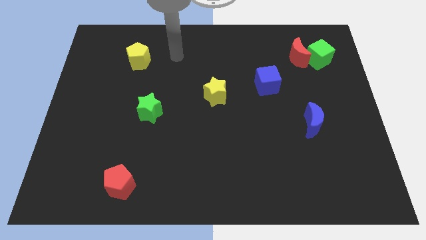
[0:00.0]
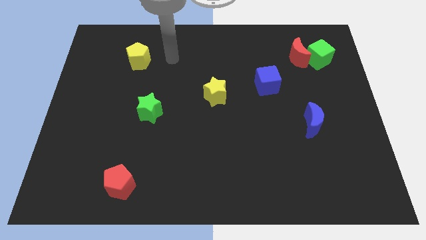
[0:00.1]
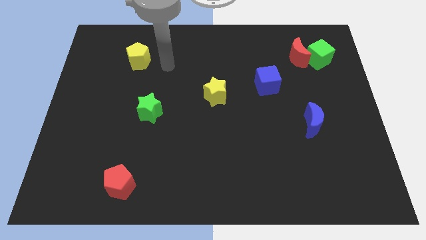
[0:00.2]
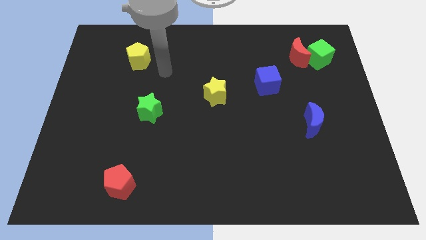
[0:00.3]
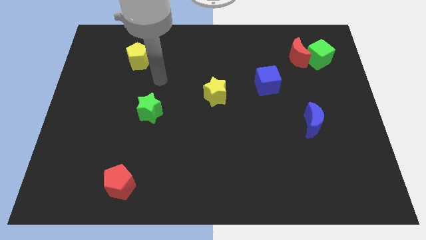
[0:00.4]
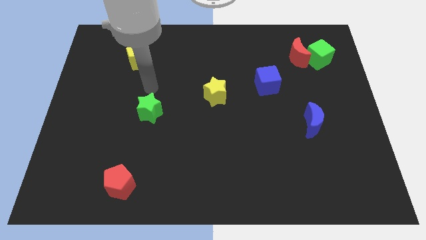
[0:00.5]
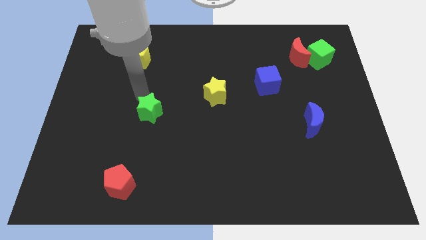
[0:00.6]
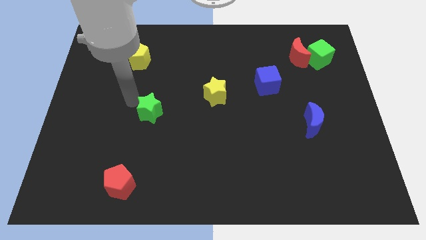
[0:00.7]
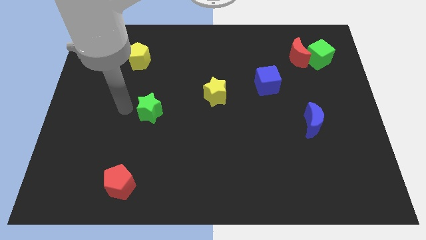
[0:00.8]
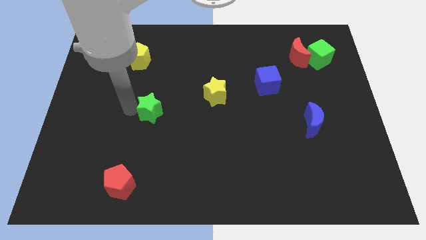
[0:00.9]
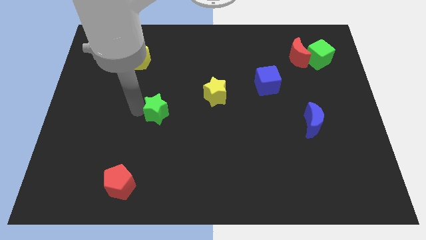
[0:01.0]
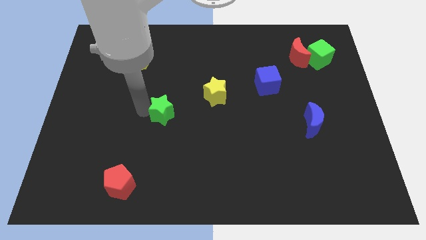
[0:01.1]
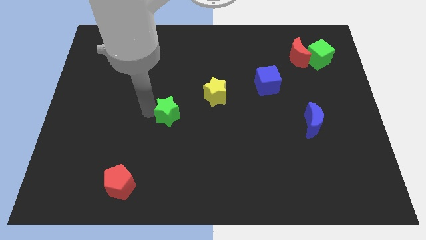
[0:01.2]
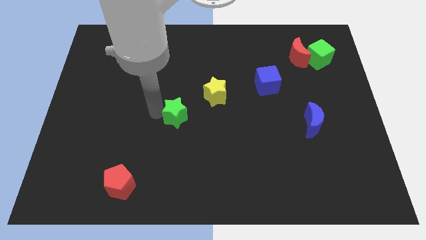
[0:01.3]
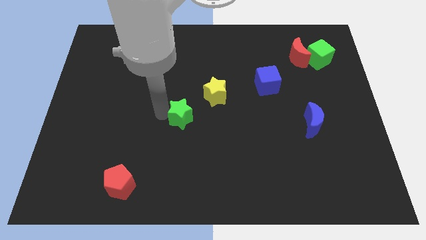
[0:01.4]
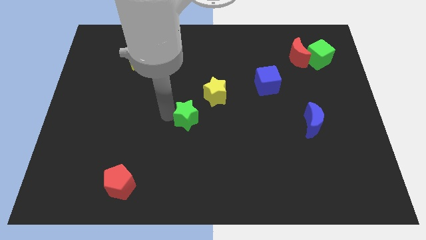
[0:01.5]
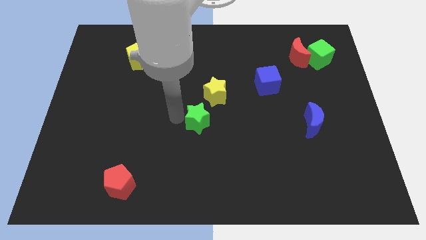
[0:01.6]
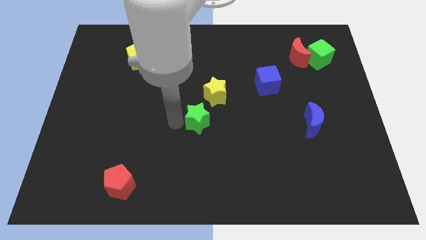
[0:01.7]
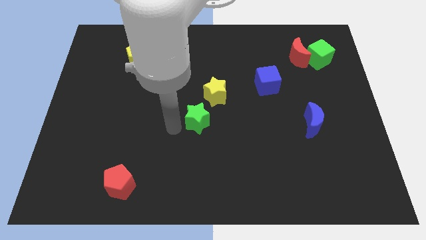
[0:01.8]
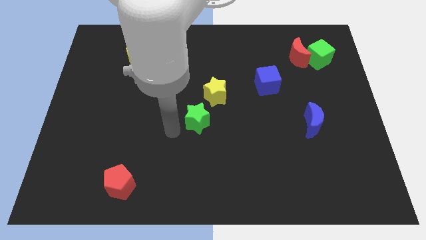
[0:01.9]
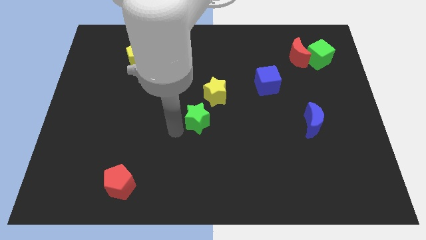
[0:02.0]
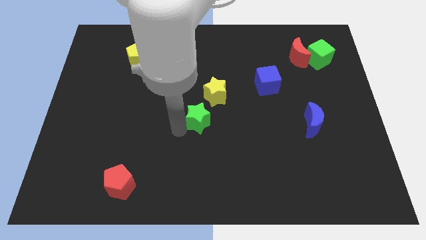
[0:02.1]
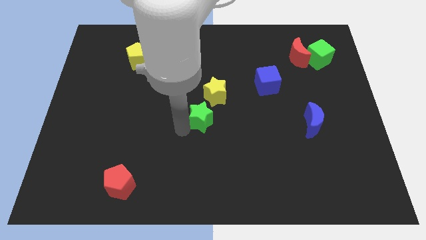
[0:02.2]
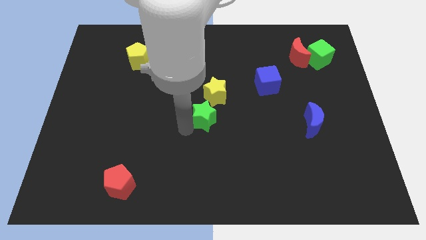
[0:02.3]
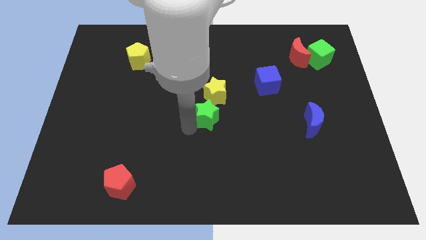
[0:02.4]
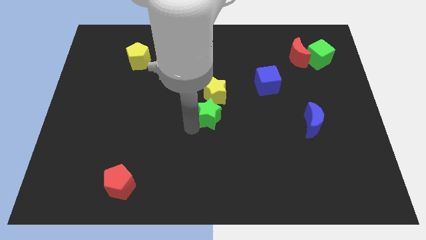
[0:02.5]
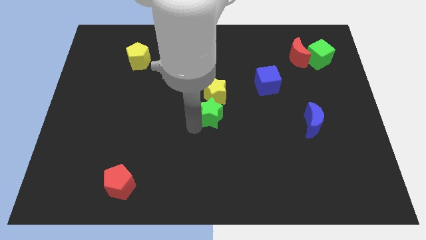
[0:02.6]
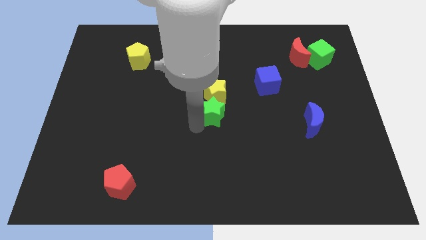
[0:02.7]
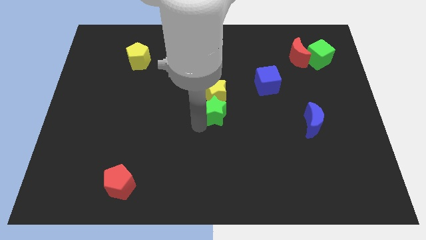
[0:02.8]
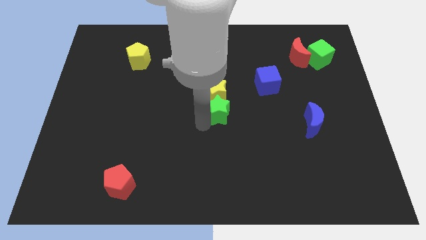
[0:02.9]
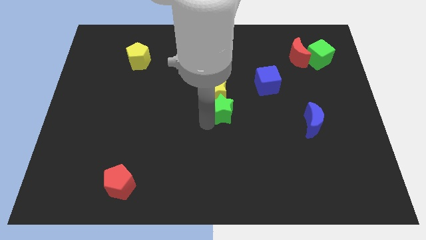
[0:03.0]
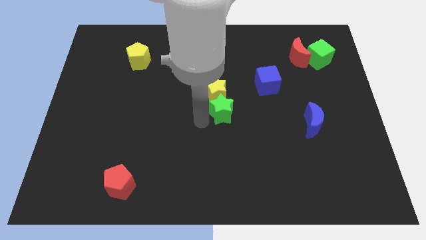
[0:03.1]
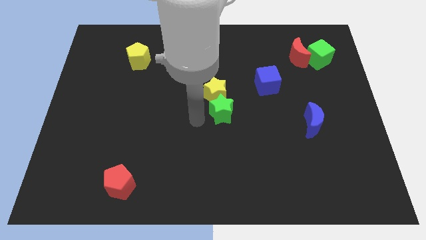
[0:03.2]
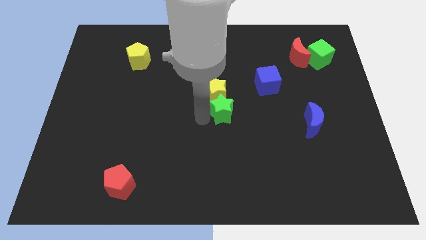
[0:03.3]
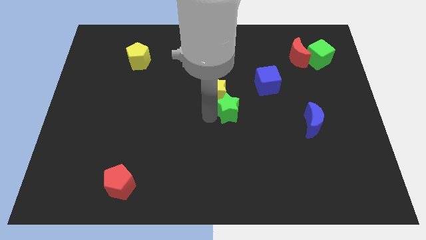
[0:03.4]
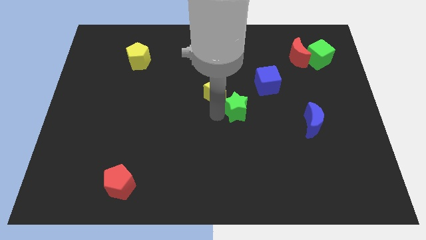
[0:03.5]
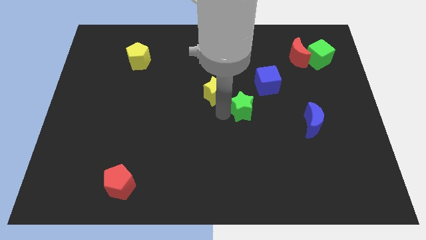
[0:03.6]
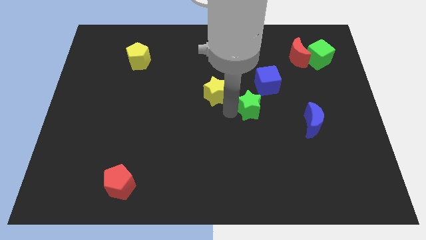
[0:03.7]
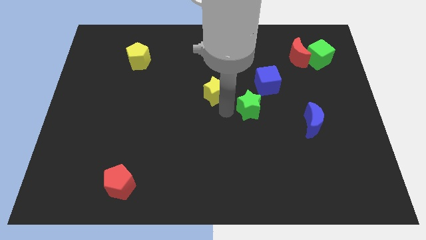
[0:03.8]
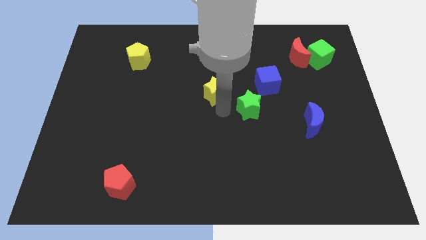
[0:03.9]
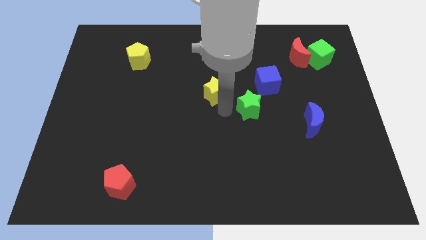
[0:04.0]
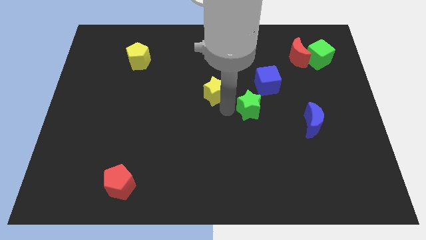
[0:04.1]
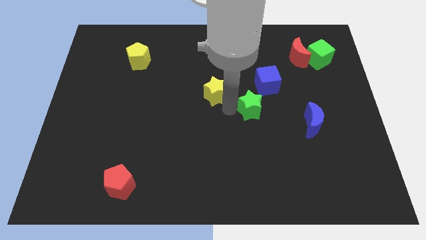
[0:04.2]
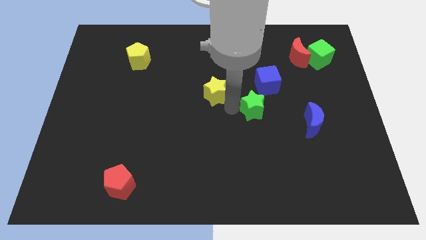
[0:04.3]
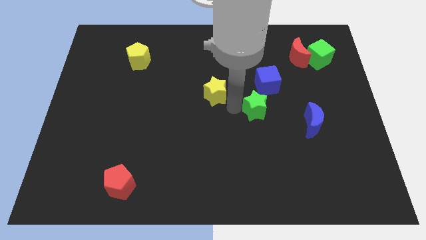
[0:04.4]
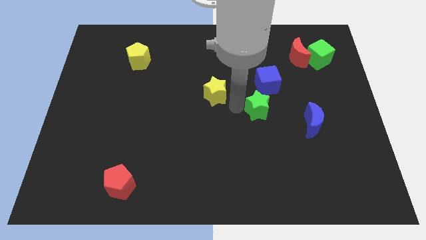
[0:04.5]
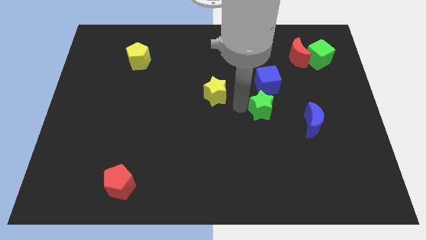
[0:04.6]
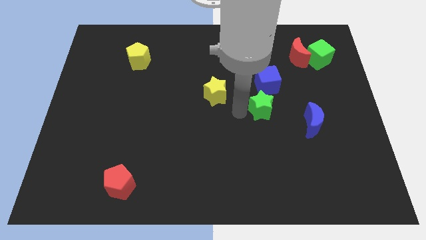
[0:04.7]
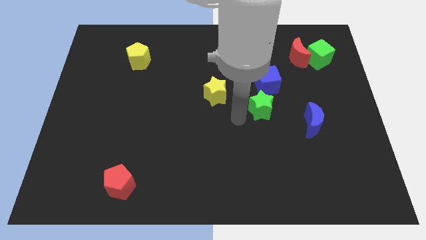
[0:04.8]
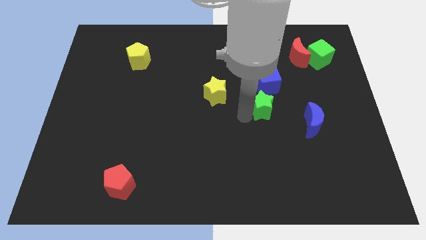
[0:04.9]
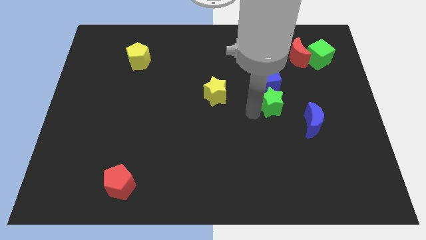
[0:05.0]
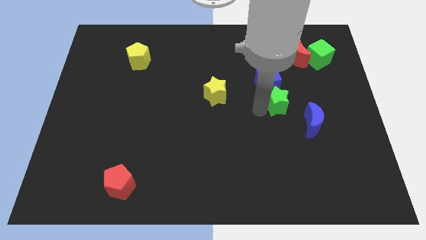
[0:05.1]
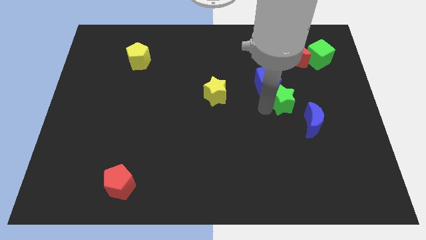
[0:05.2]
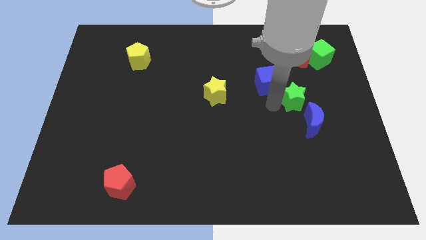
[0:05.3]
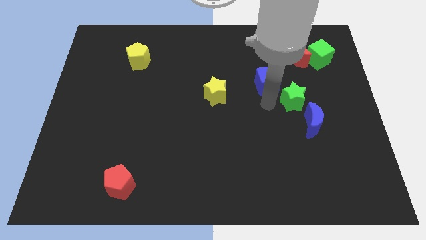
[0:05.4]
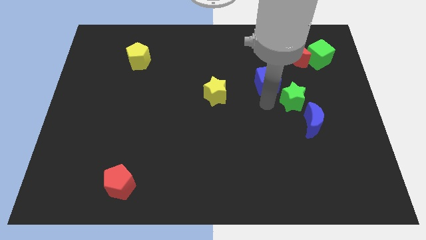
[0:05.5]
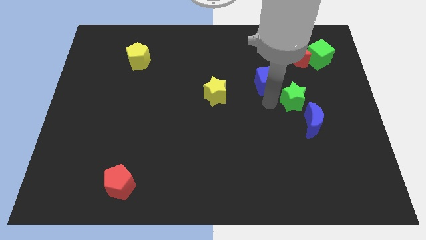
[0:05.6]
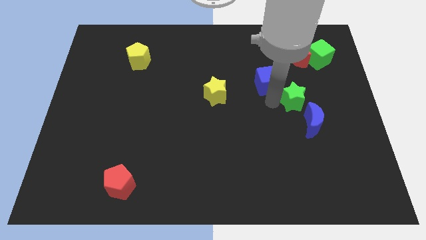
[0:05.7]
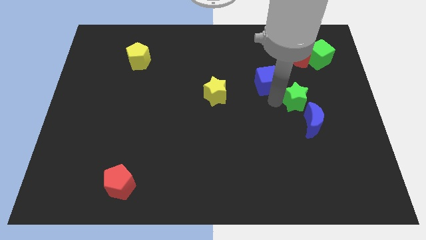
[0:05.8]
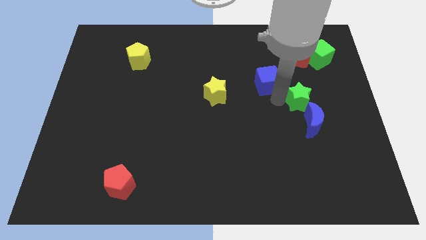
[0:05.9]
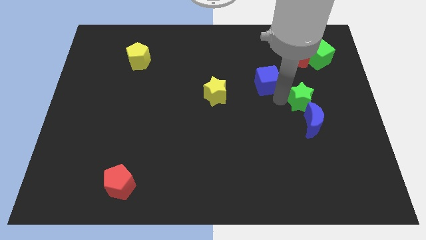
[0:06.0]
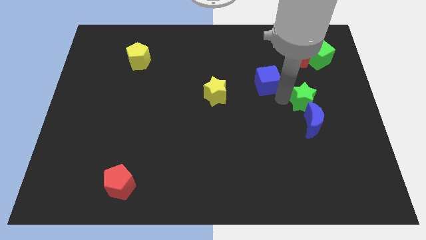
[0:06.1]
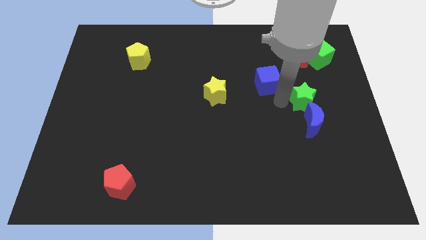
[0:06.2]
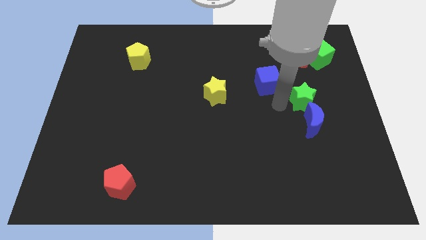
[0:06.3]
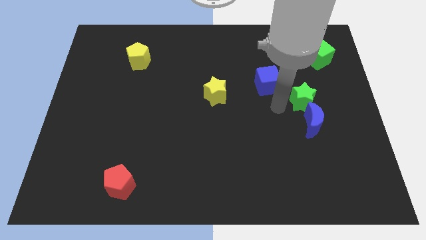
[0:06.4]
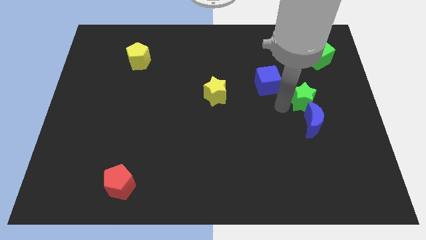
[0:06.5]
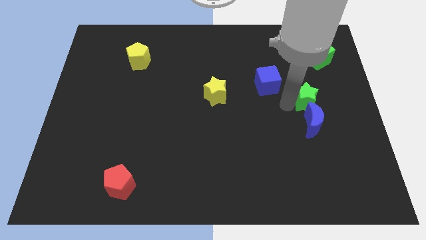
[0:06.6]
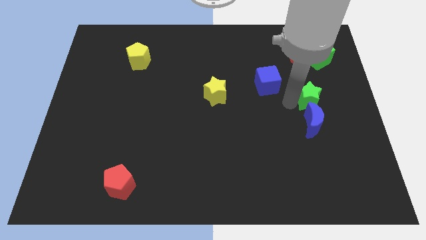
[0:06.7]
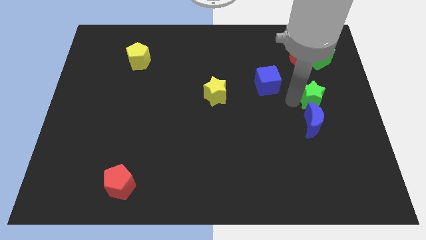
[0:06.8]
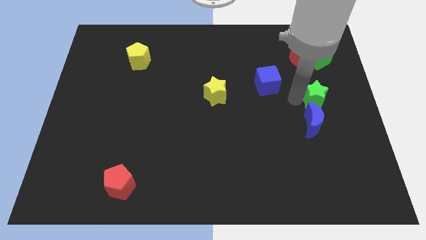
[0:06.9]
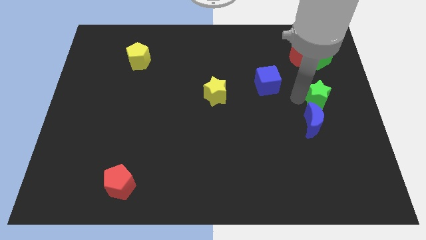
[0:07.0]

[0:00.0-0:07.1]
slide the green star to the right side of the board
